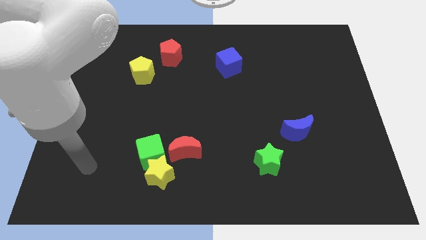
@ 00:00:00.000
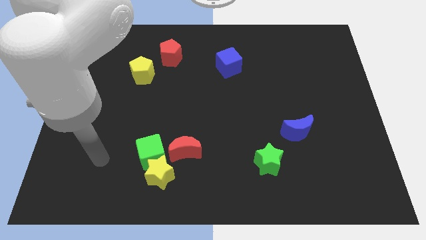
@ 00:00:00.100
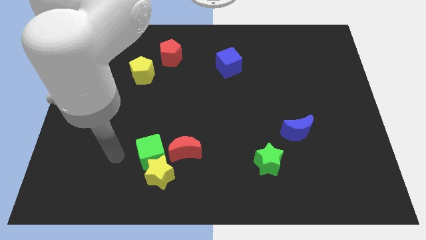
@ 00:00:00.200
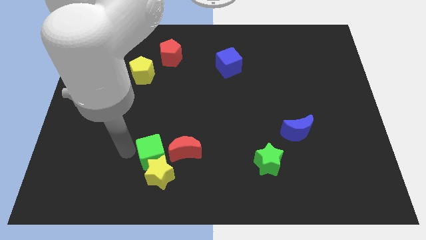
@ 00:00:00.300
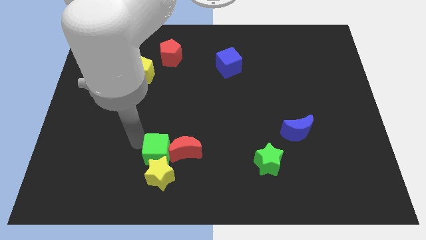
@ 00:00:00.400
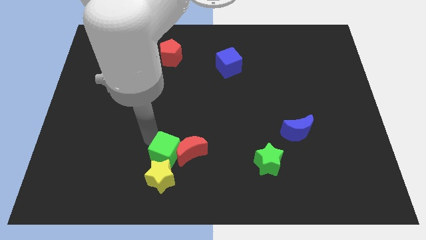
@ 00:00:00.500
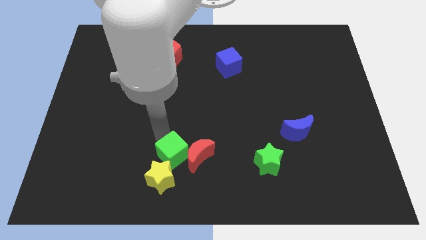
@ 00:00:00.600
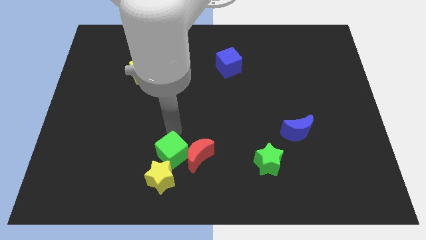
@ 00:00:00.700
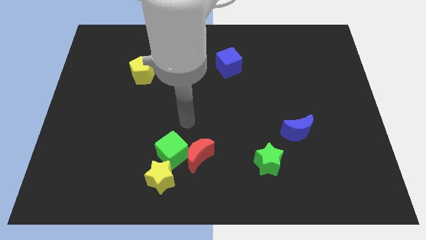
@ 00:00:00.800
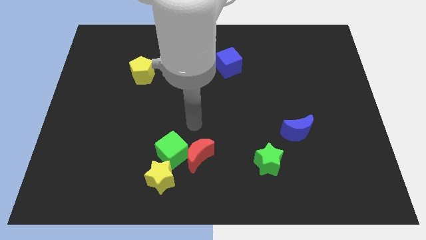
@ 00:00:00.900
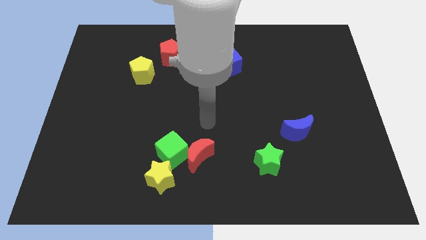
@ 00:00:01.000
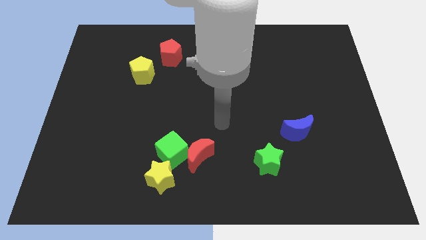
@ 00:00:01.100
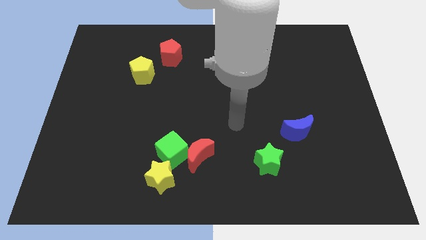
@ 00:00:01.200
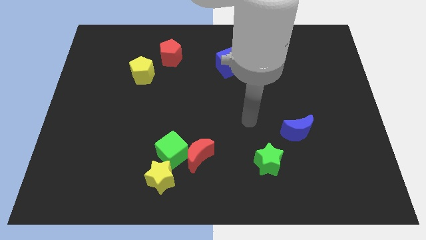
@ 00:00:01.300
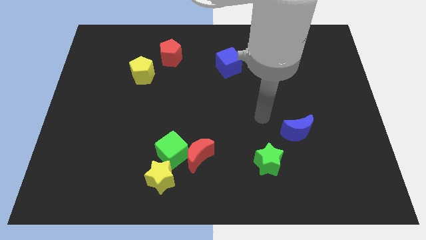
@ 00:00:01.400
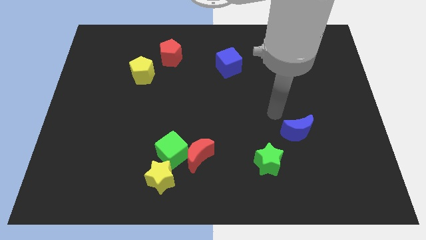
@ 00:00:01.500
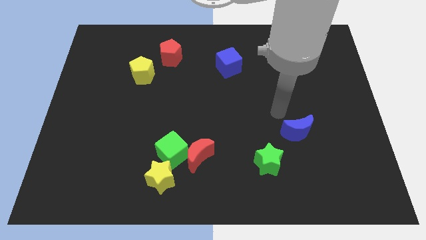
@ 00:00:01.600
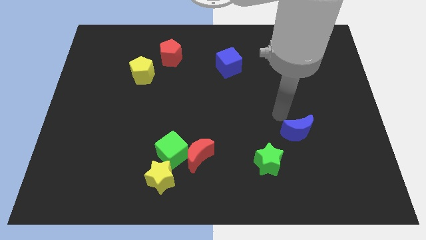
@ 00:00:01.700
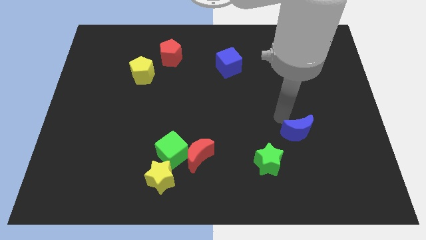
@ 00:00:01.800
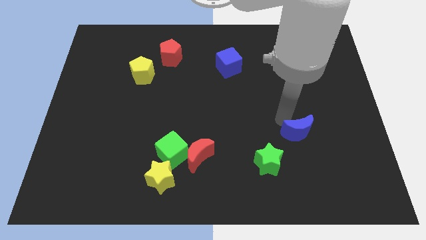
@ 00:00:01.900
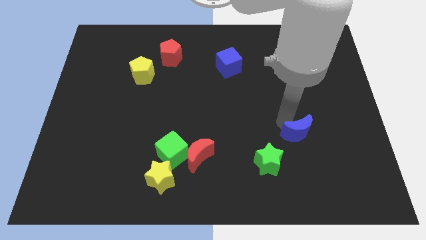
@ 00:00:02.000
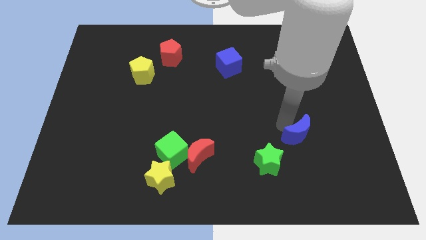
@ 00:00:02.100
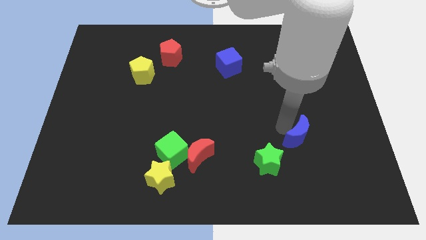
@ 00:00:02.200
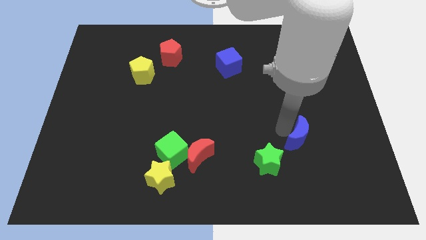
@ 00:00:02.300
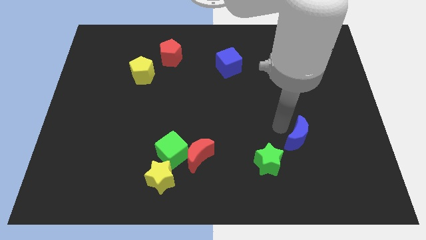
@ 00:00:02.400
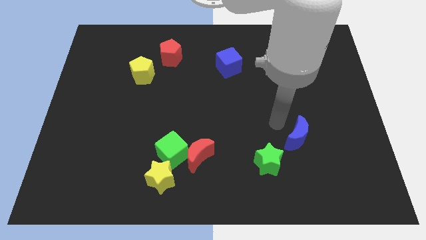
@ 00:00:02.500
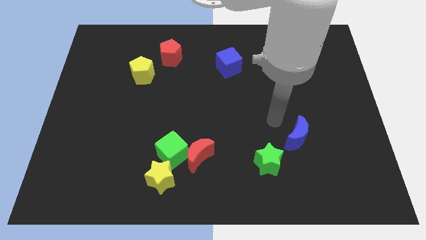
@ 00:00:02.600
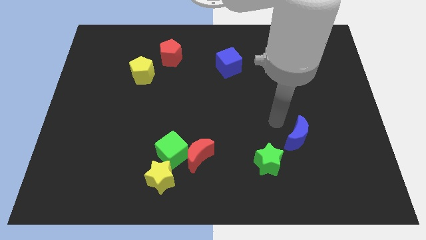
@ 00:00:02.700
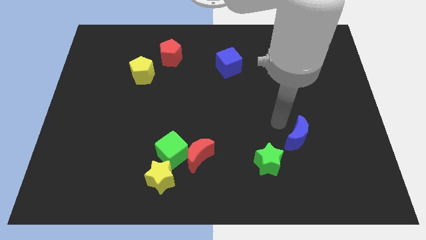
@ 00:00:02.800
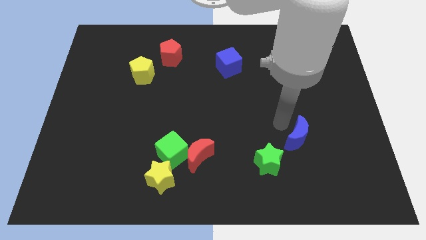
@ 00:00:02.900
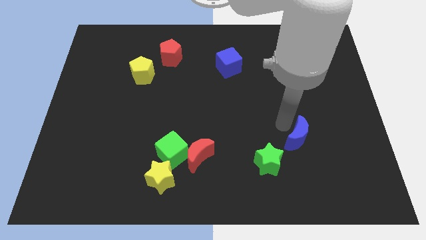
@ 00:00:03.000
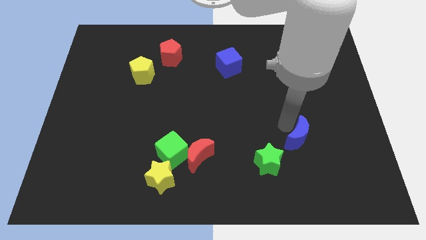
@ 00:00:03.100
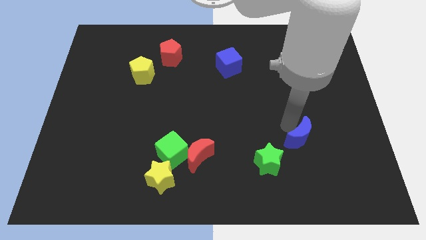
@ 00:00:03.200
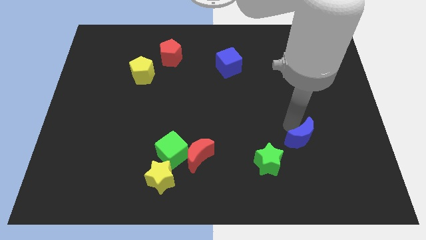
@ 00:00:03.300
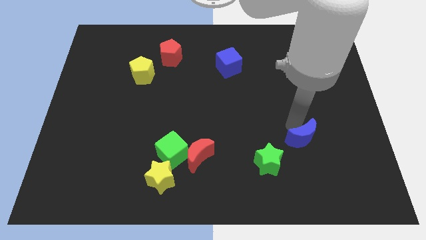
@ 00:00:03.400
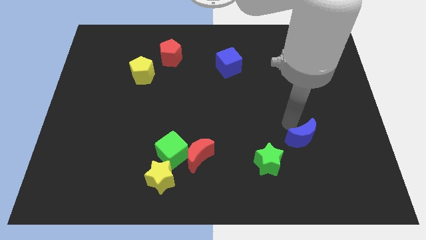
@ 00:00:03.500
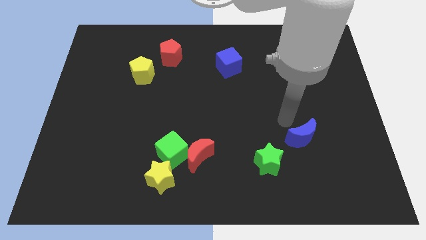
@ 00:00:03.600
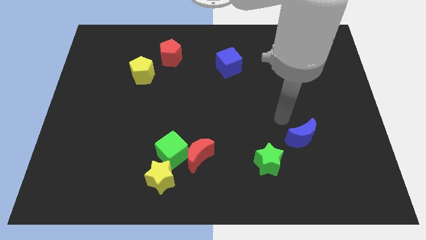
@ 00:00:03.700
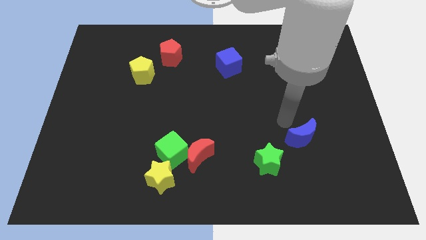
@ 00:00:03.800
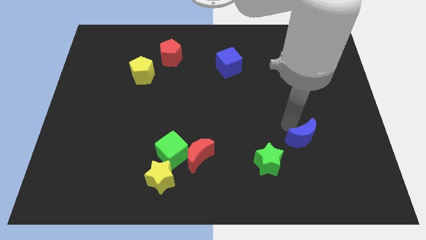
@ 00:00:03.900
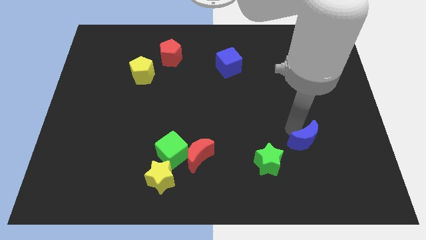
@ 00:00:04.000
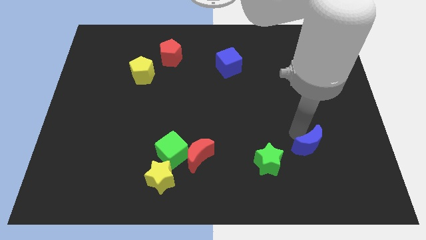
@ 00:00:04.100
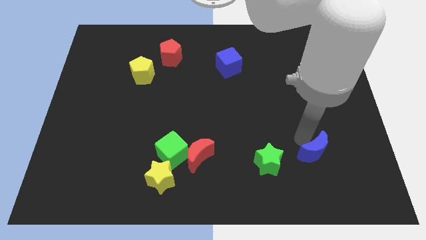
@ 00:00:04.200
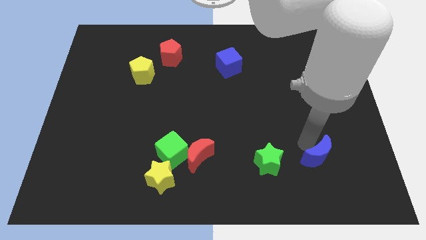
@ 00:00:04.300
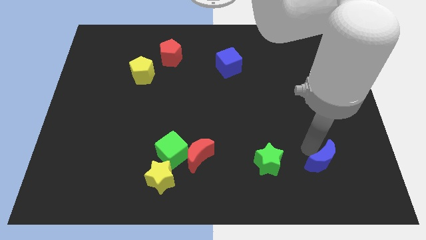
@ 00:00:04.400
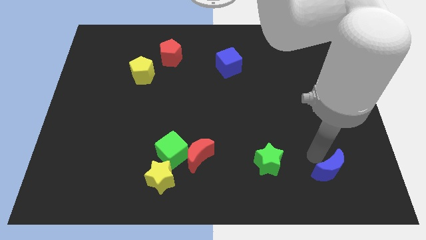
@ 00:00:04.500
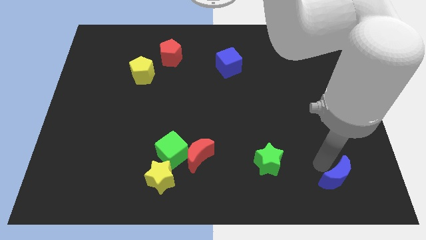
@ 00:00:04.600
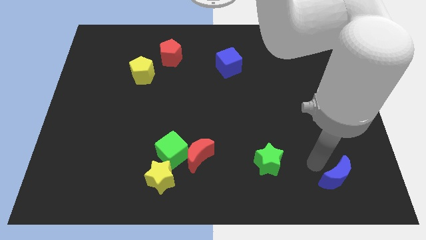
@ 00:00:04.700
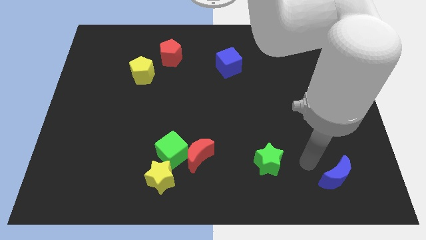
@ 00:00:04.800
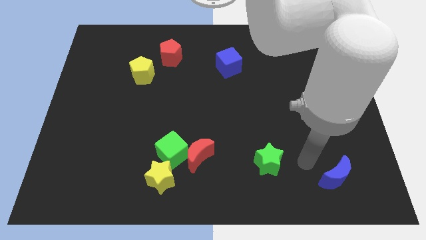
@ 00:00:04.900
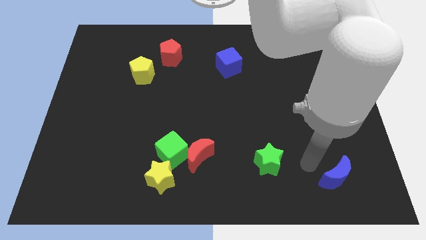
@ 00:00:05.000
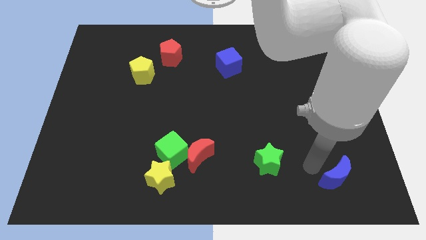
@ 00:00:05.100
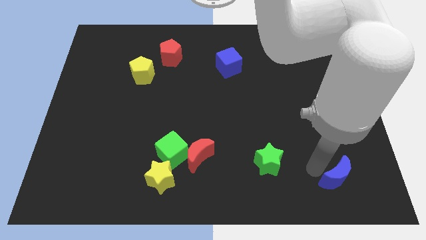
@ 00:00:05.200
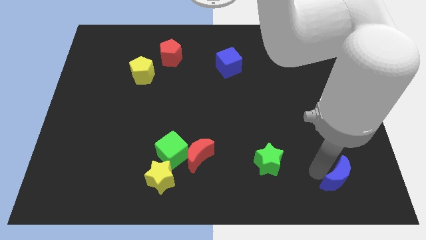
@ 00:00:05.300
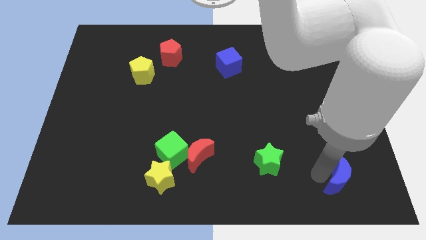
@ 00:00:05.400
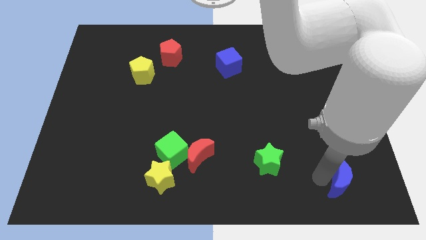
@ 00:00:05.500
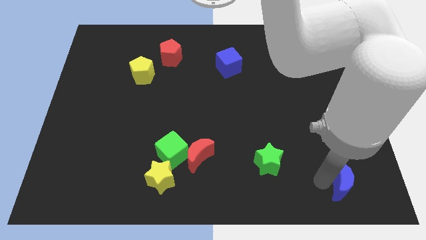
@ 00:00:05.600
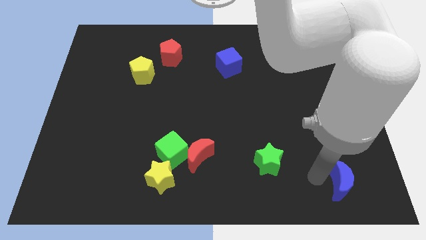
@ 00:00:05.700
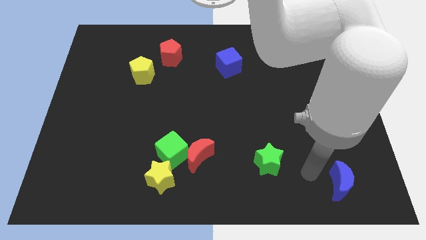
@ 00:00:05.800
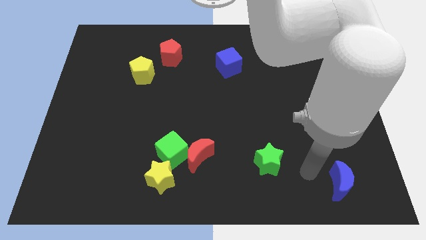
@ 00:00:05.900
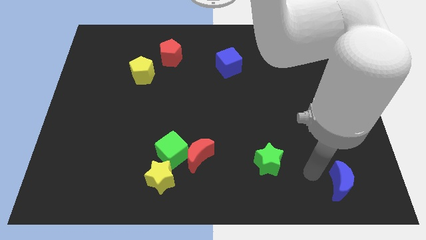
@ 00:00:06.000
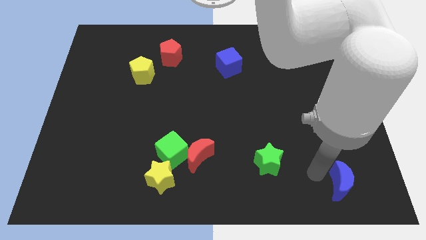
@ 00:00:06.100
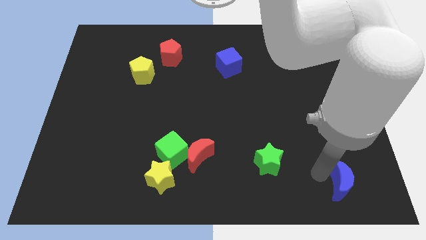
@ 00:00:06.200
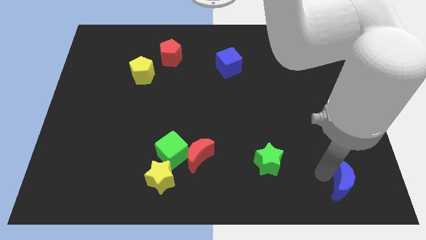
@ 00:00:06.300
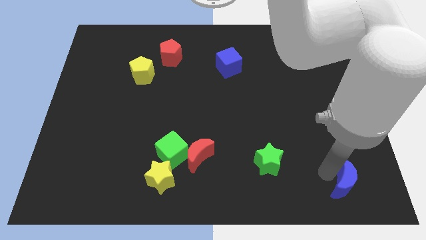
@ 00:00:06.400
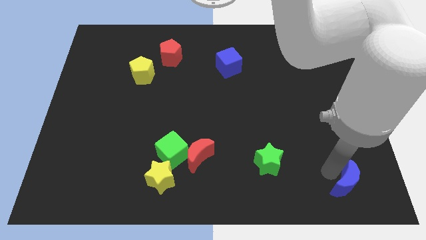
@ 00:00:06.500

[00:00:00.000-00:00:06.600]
move the blue moon to the lower right corner

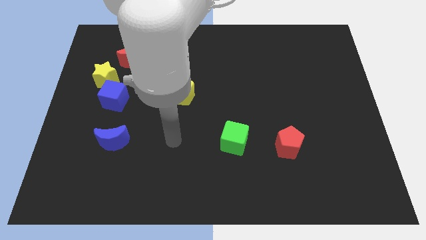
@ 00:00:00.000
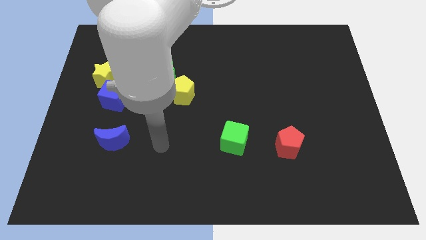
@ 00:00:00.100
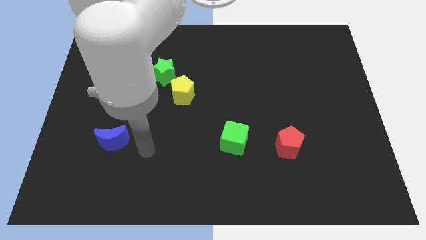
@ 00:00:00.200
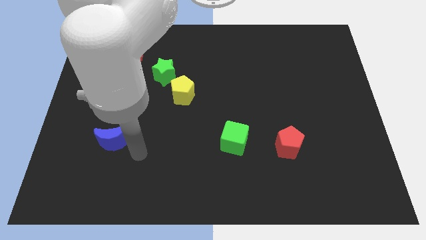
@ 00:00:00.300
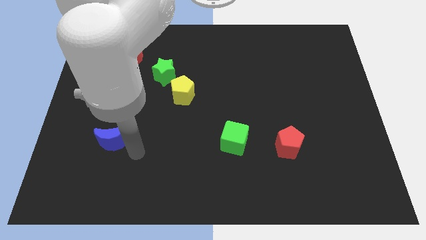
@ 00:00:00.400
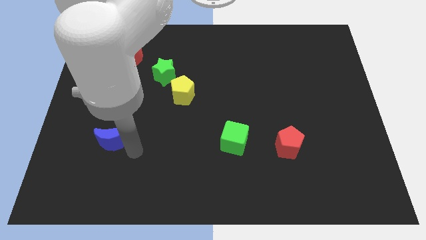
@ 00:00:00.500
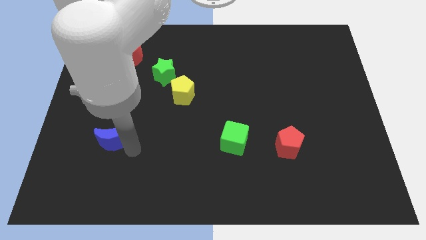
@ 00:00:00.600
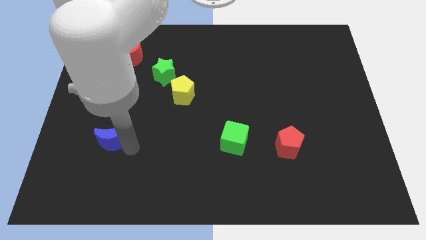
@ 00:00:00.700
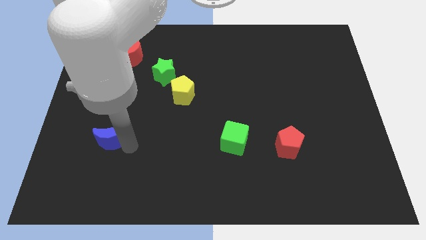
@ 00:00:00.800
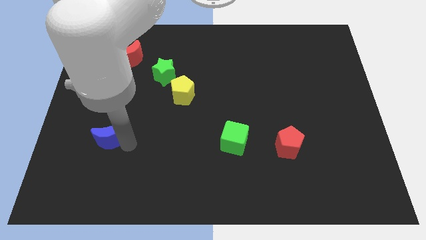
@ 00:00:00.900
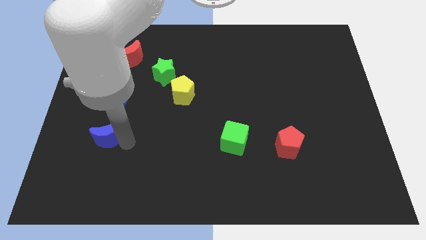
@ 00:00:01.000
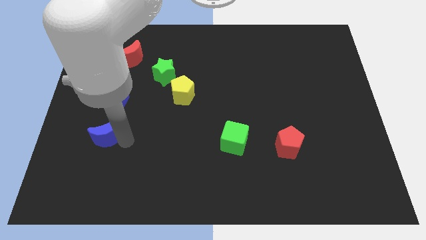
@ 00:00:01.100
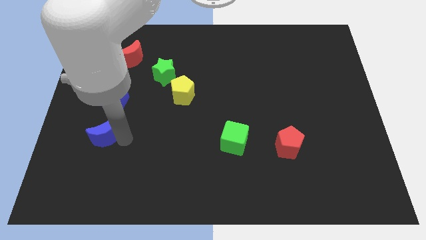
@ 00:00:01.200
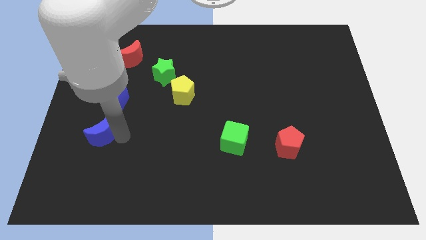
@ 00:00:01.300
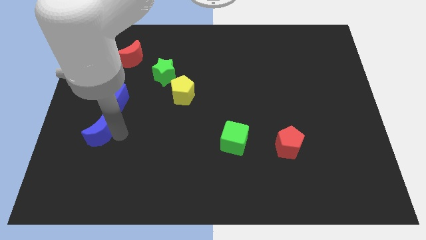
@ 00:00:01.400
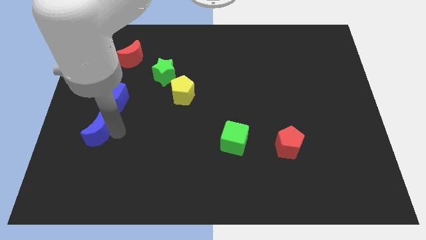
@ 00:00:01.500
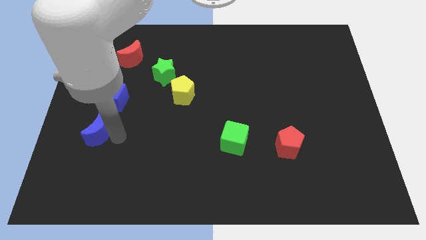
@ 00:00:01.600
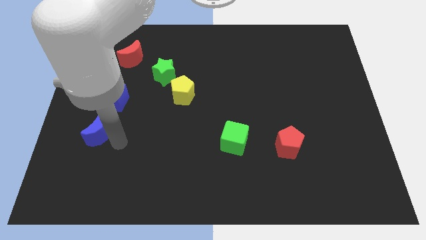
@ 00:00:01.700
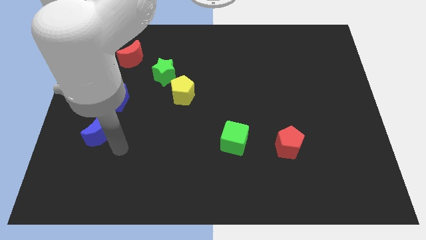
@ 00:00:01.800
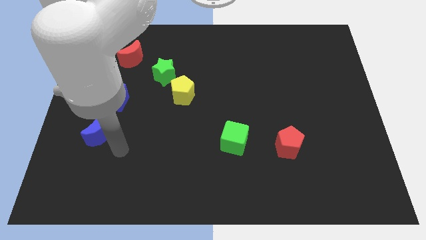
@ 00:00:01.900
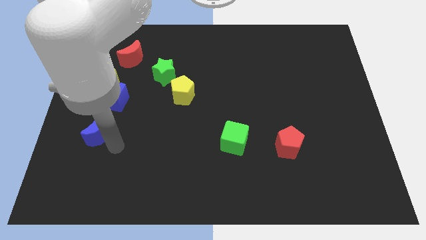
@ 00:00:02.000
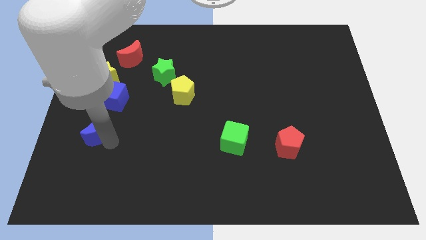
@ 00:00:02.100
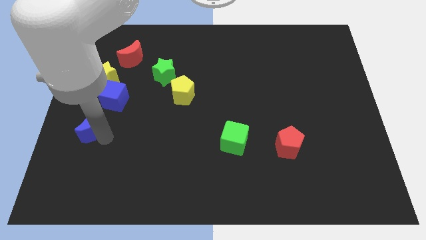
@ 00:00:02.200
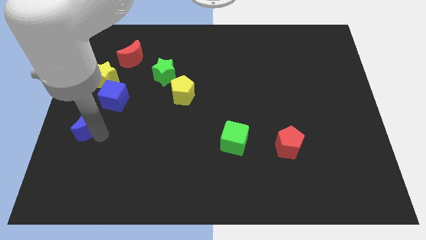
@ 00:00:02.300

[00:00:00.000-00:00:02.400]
move the blue moon to the left side
